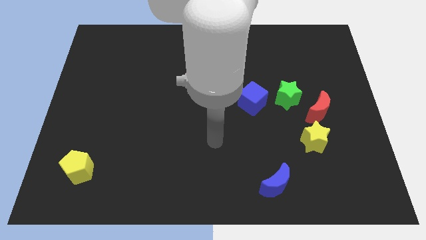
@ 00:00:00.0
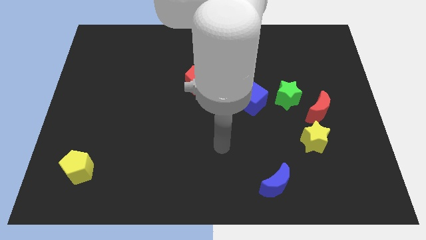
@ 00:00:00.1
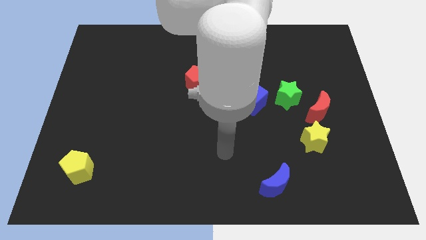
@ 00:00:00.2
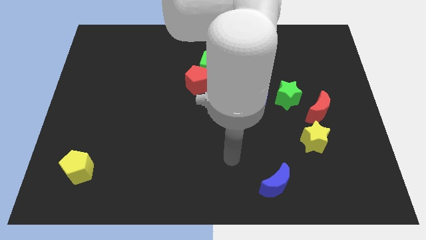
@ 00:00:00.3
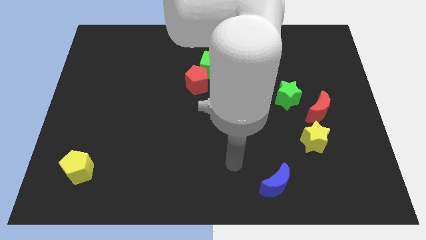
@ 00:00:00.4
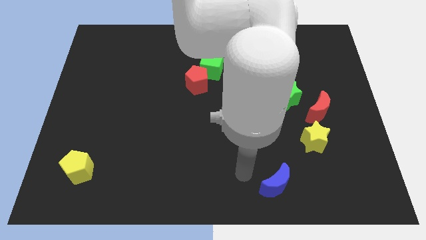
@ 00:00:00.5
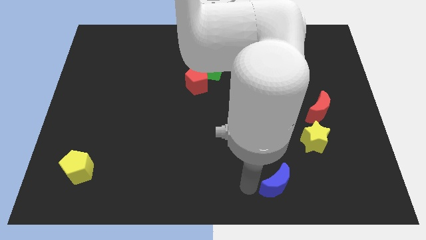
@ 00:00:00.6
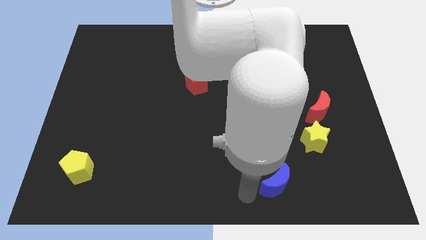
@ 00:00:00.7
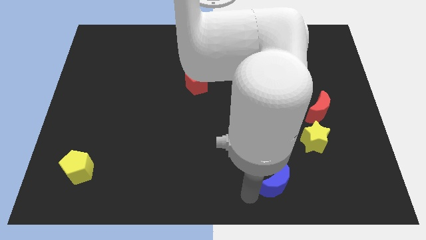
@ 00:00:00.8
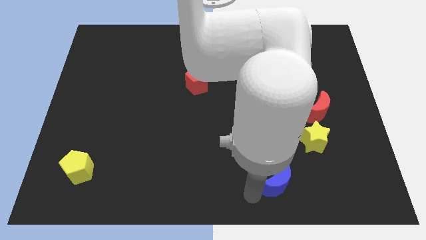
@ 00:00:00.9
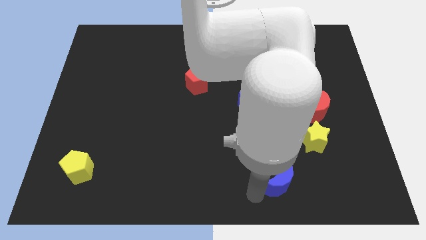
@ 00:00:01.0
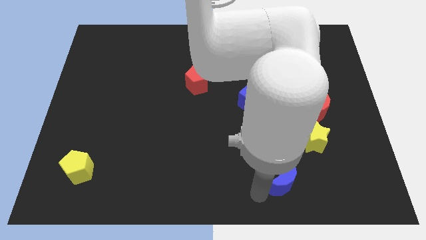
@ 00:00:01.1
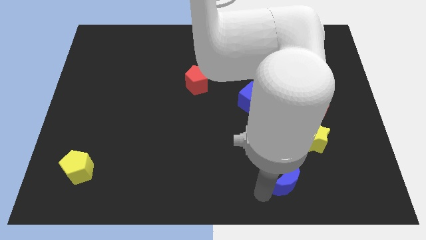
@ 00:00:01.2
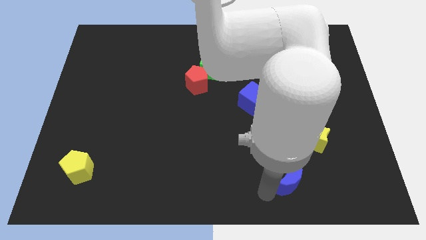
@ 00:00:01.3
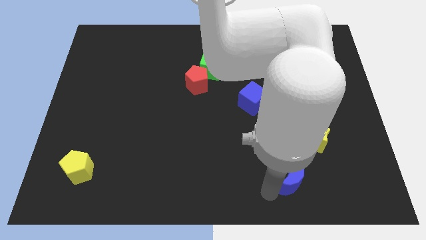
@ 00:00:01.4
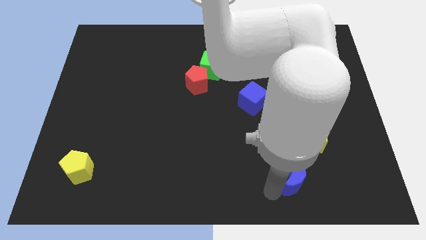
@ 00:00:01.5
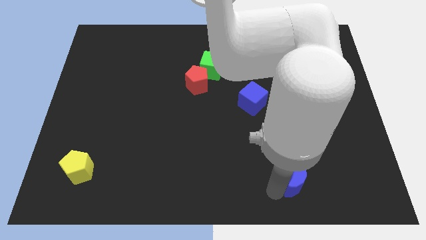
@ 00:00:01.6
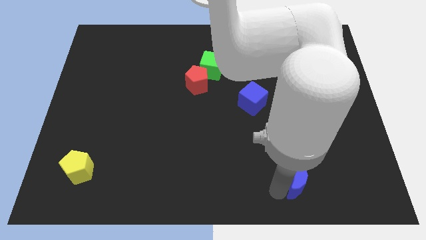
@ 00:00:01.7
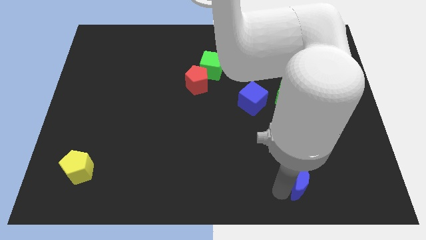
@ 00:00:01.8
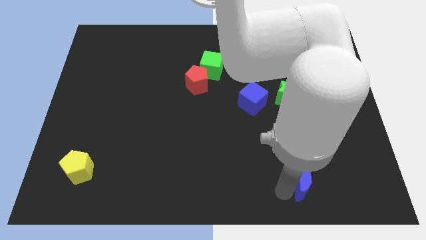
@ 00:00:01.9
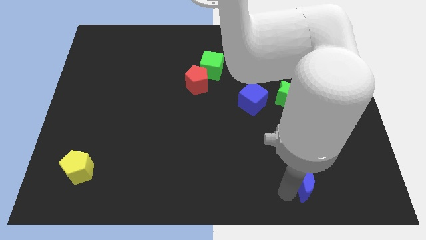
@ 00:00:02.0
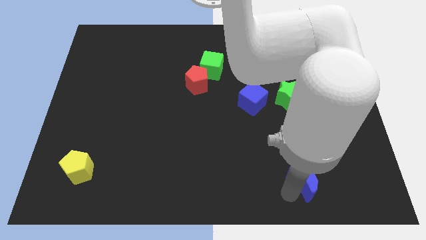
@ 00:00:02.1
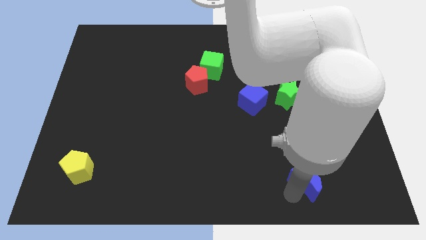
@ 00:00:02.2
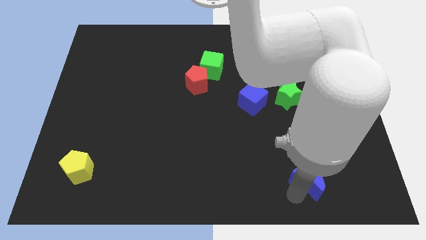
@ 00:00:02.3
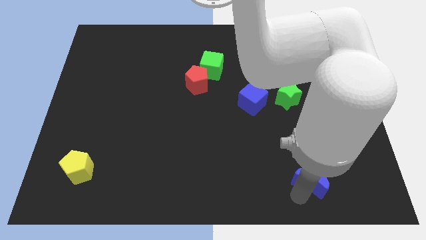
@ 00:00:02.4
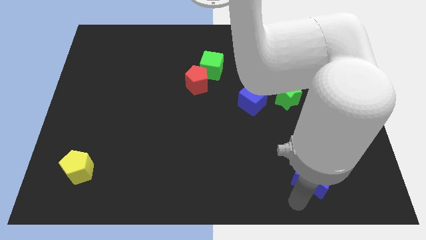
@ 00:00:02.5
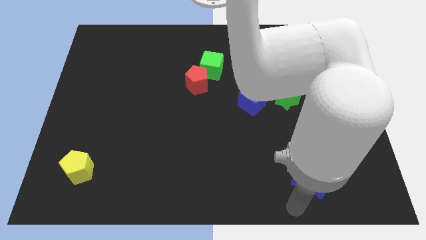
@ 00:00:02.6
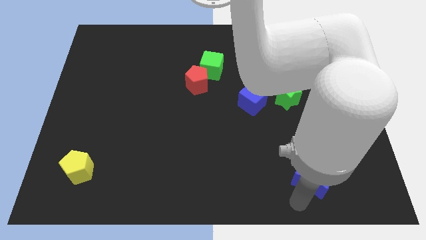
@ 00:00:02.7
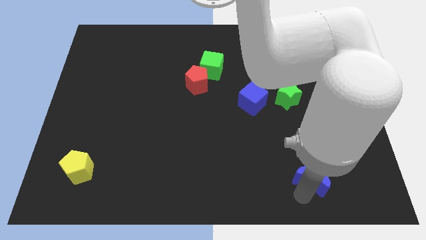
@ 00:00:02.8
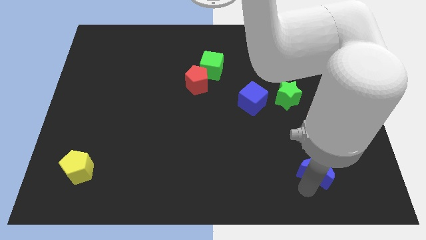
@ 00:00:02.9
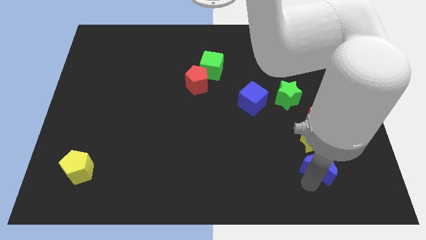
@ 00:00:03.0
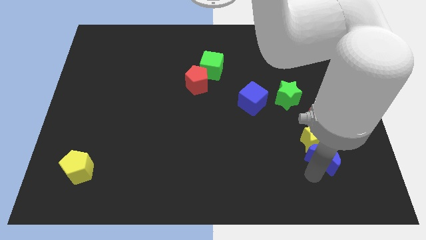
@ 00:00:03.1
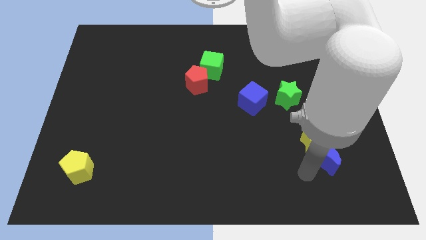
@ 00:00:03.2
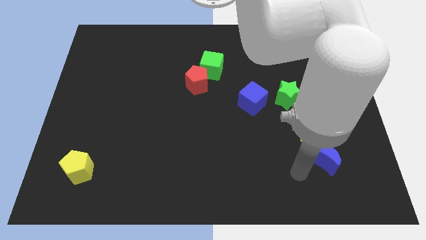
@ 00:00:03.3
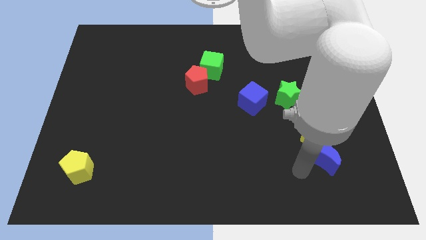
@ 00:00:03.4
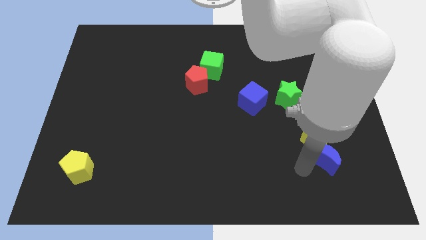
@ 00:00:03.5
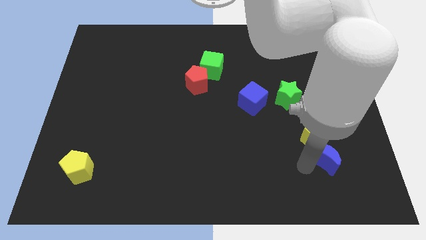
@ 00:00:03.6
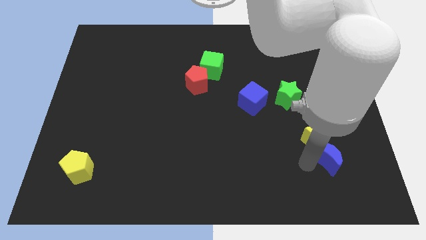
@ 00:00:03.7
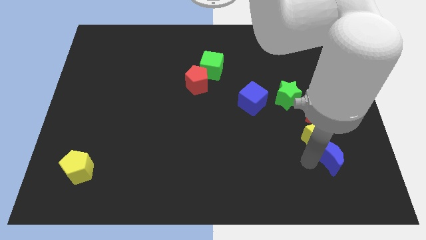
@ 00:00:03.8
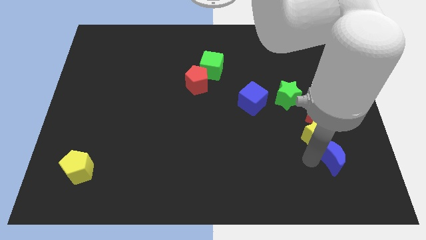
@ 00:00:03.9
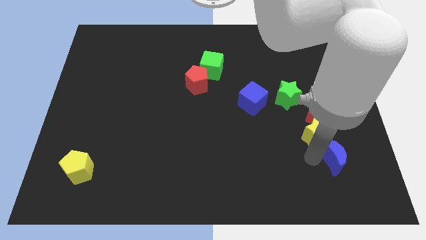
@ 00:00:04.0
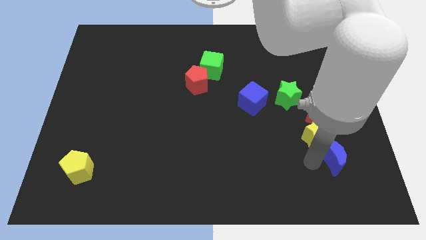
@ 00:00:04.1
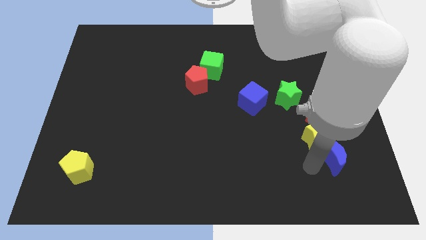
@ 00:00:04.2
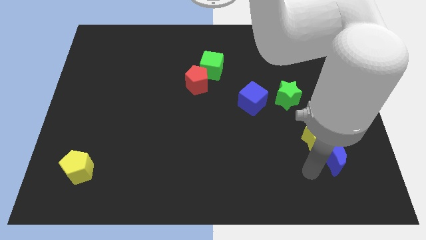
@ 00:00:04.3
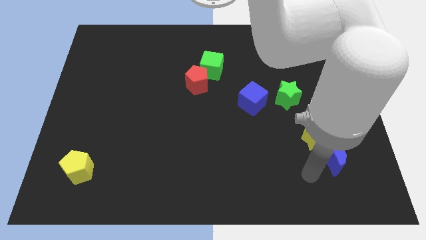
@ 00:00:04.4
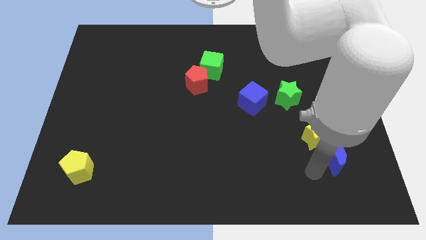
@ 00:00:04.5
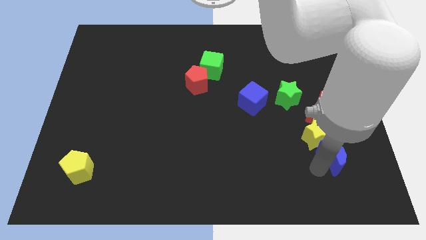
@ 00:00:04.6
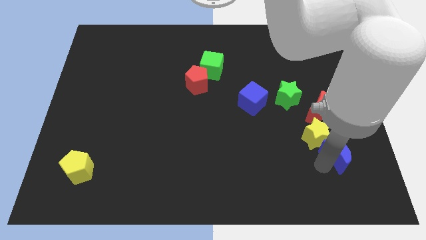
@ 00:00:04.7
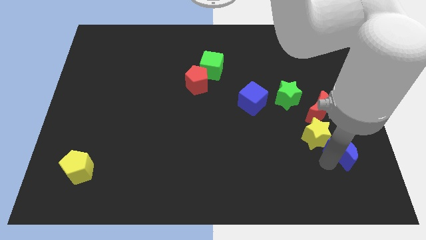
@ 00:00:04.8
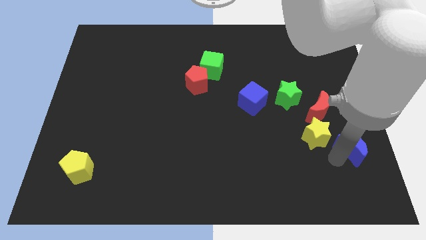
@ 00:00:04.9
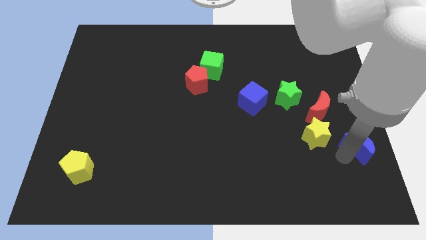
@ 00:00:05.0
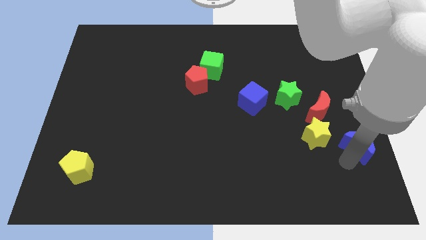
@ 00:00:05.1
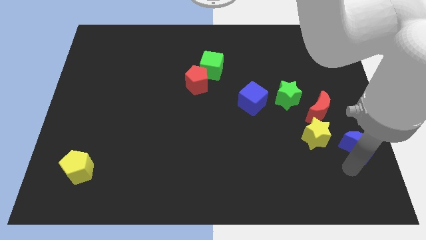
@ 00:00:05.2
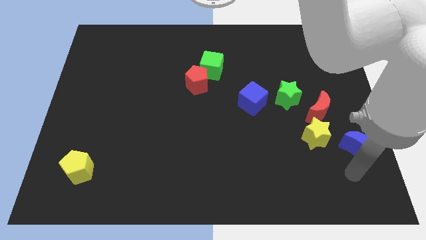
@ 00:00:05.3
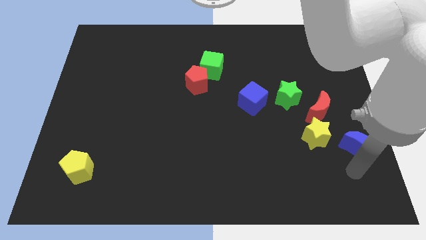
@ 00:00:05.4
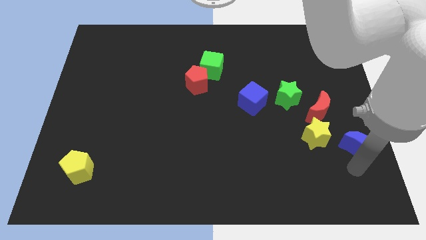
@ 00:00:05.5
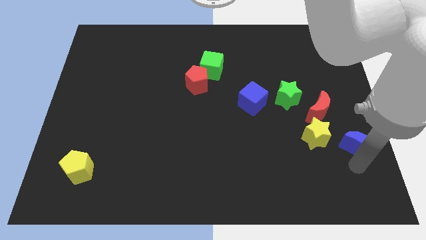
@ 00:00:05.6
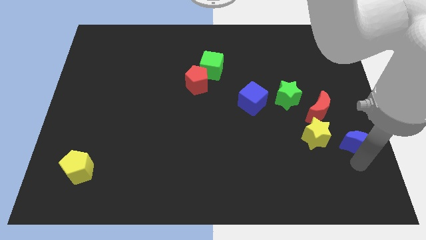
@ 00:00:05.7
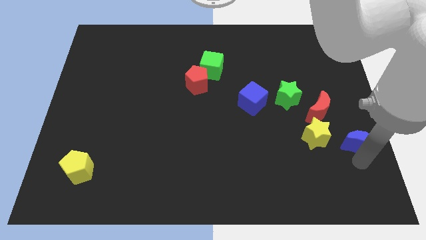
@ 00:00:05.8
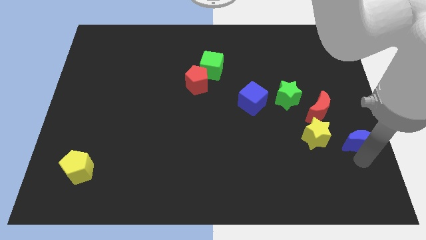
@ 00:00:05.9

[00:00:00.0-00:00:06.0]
push the blue moon to the right side of the board
